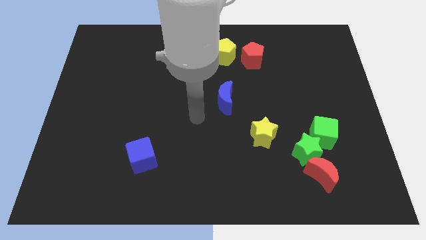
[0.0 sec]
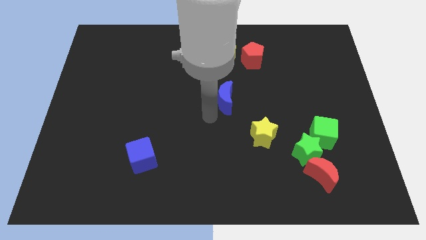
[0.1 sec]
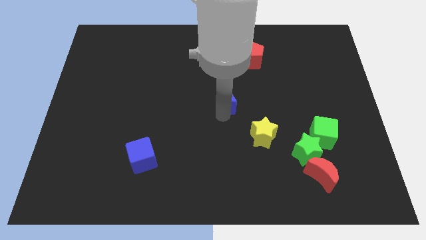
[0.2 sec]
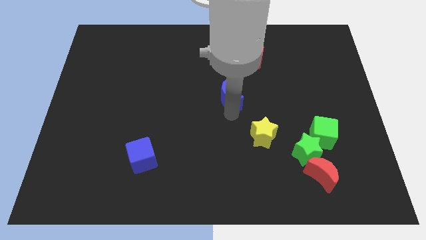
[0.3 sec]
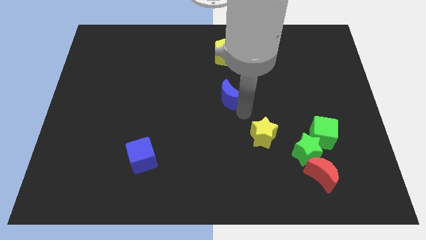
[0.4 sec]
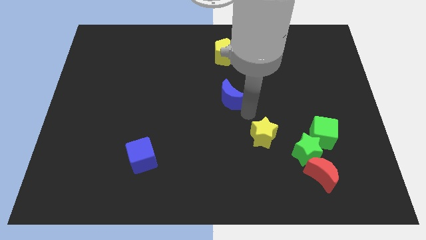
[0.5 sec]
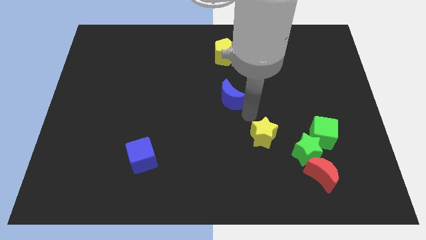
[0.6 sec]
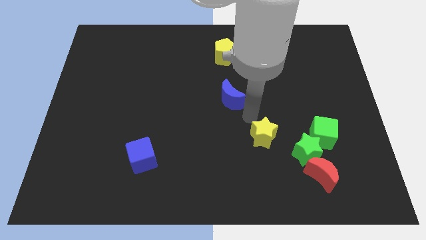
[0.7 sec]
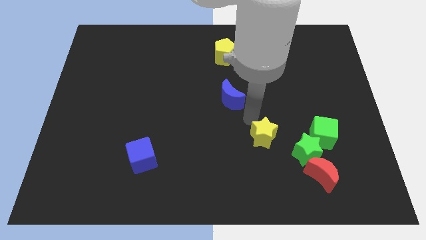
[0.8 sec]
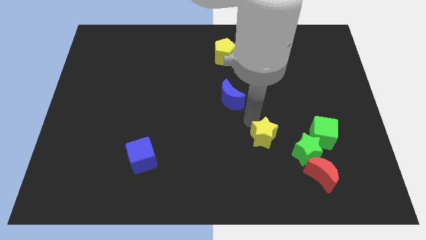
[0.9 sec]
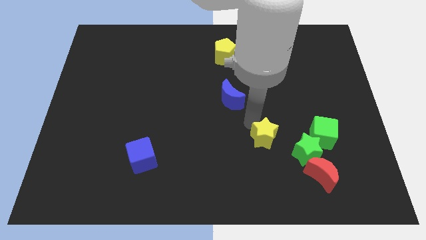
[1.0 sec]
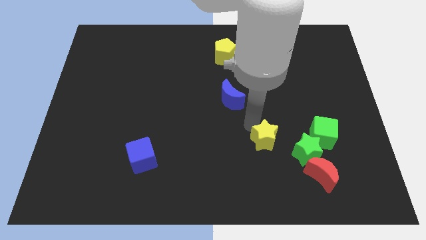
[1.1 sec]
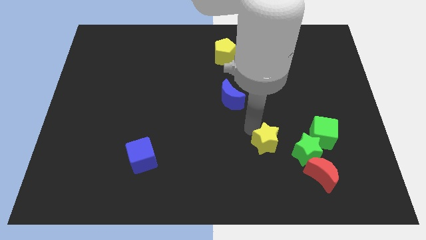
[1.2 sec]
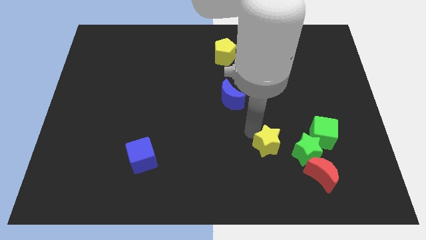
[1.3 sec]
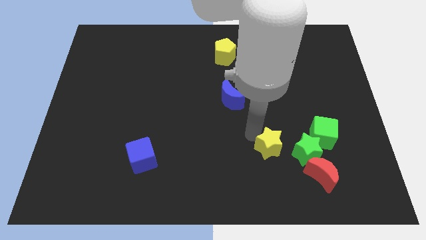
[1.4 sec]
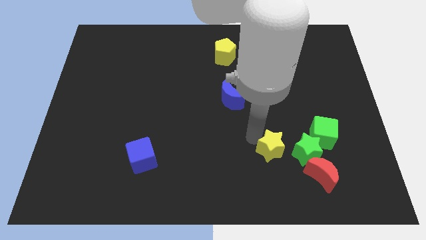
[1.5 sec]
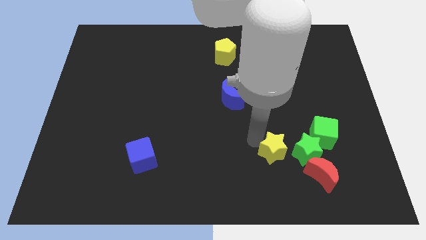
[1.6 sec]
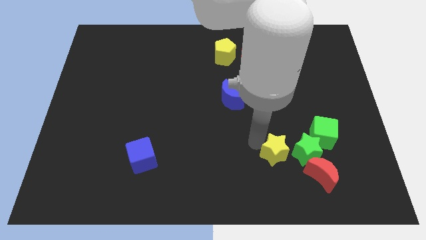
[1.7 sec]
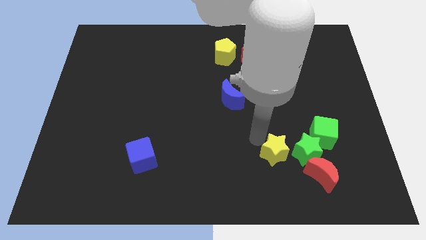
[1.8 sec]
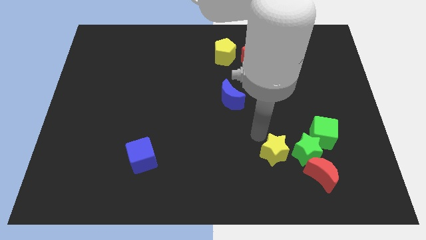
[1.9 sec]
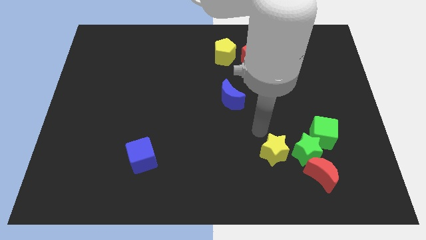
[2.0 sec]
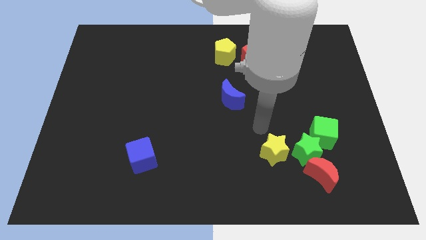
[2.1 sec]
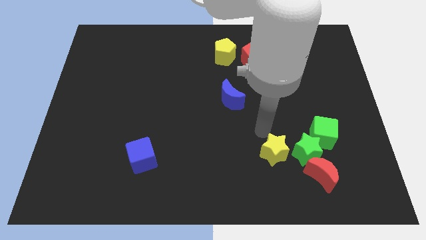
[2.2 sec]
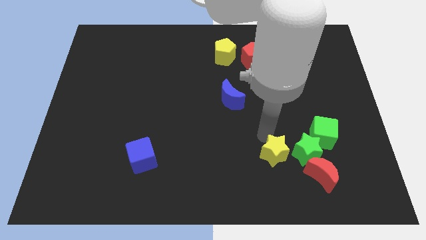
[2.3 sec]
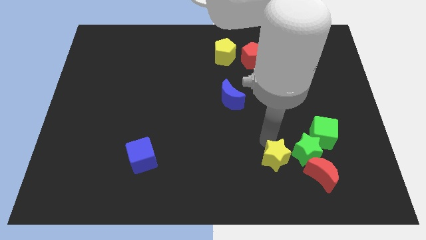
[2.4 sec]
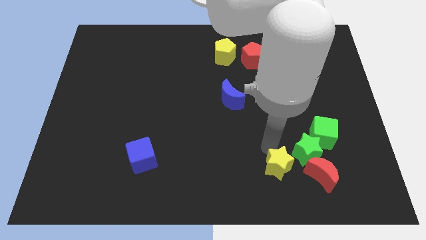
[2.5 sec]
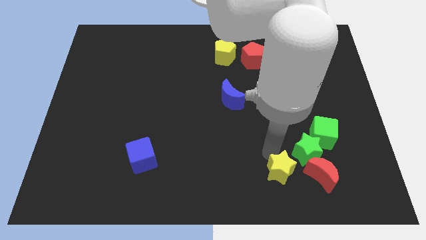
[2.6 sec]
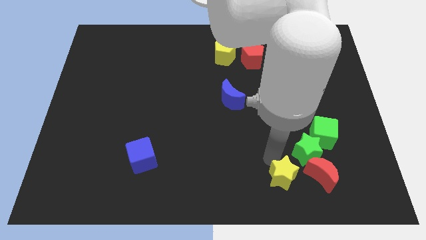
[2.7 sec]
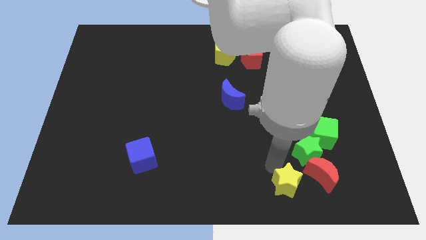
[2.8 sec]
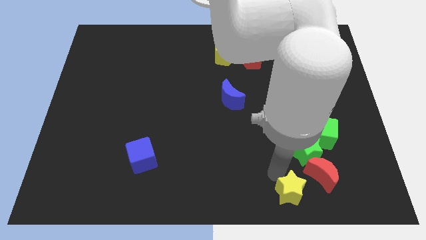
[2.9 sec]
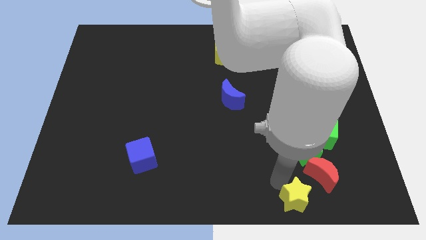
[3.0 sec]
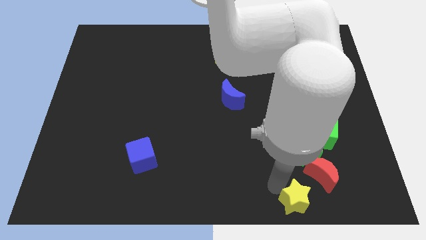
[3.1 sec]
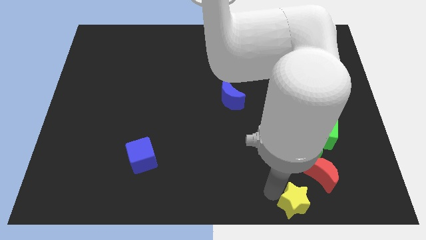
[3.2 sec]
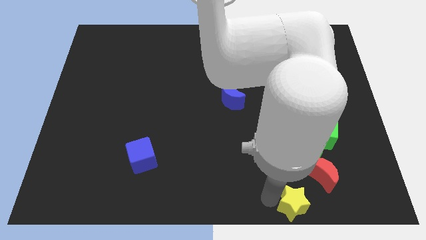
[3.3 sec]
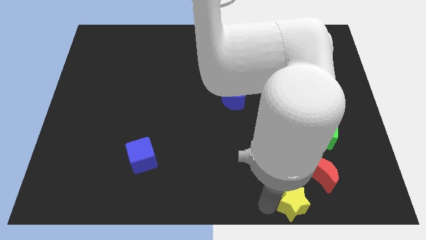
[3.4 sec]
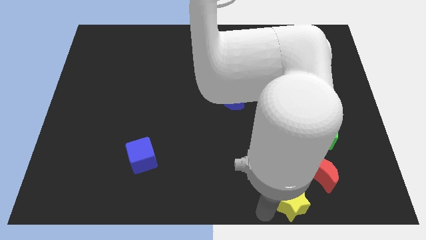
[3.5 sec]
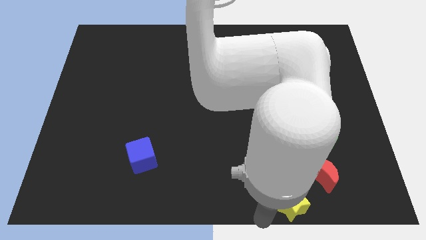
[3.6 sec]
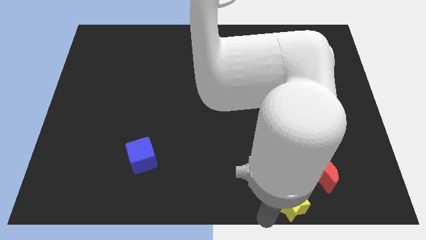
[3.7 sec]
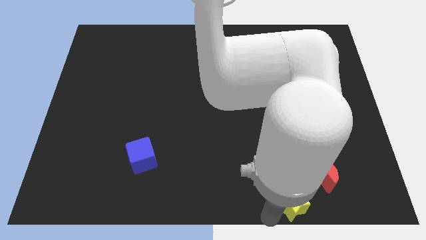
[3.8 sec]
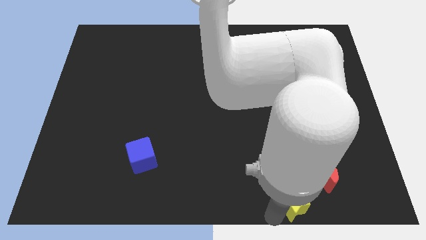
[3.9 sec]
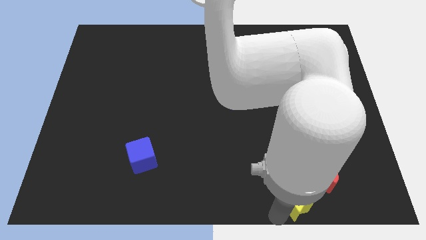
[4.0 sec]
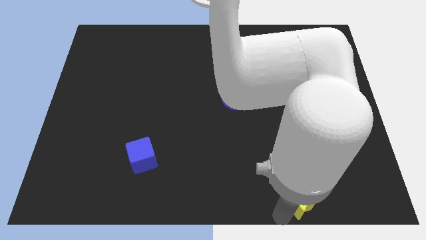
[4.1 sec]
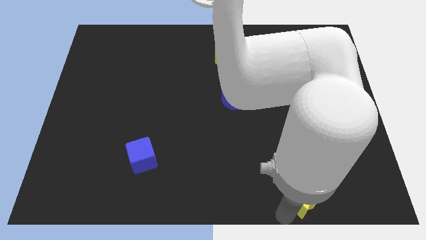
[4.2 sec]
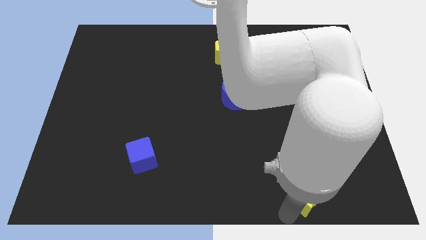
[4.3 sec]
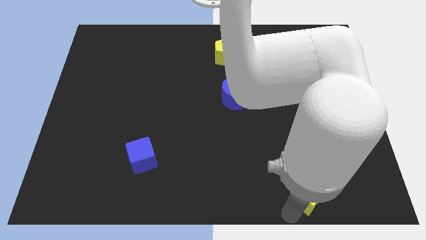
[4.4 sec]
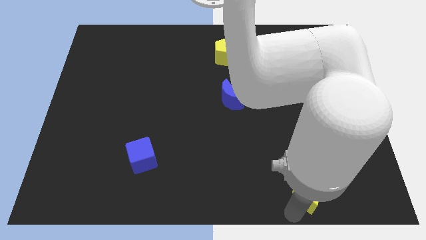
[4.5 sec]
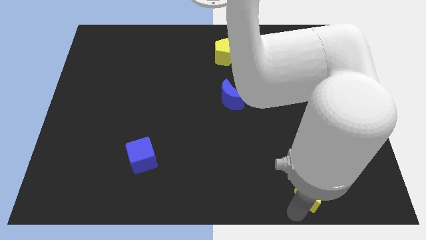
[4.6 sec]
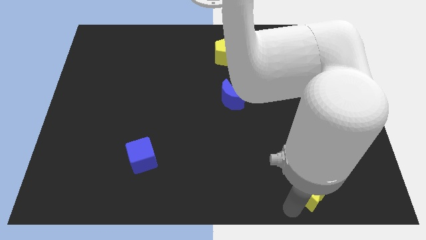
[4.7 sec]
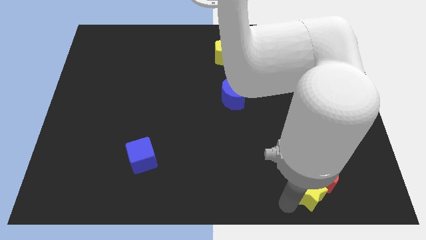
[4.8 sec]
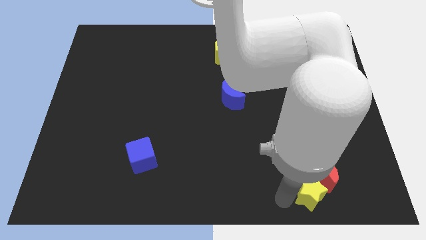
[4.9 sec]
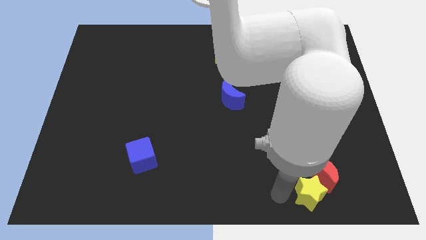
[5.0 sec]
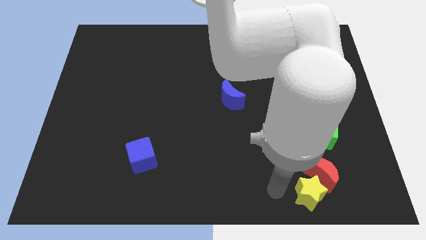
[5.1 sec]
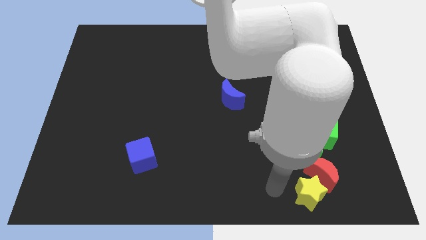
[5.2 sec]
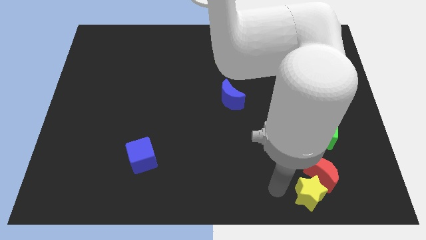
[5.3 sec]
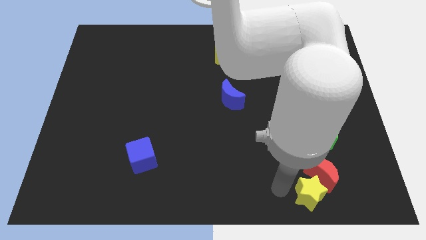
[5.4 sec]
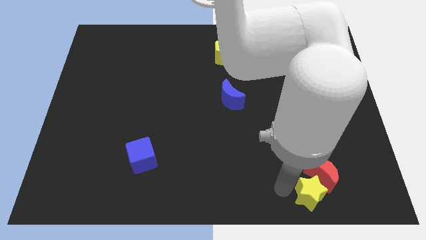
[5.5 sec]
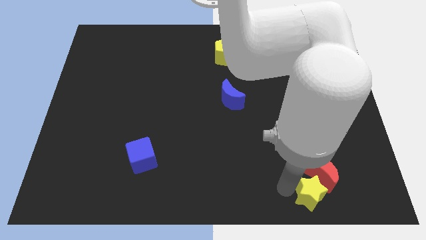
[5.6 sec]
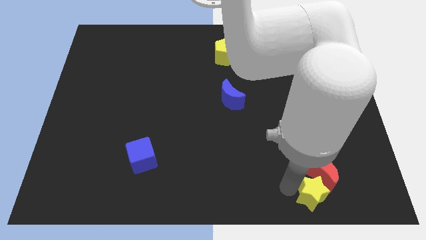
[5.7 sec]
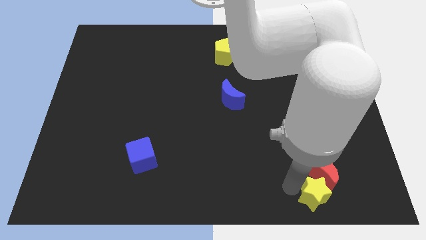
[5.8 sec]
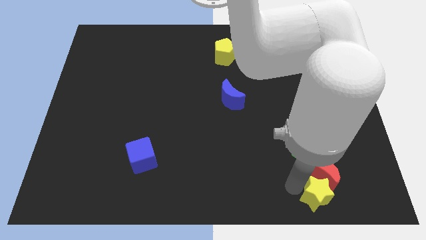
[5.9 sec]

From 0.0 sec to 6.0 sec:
move the yellow star to the bottom side of the green cube

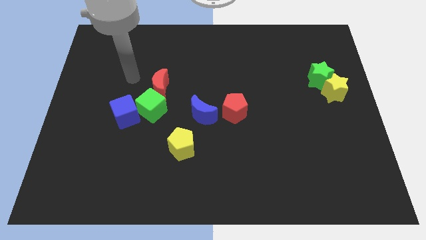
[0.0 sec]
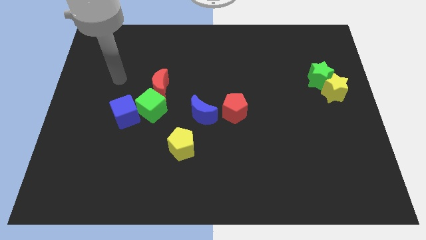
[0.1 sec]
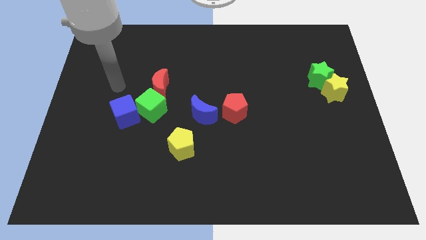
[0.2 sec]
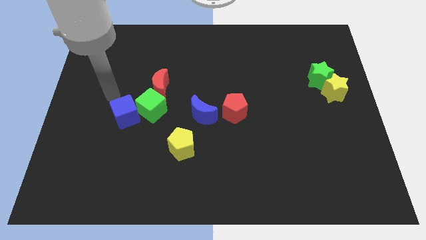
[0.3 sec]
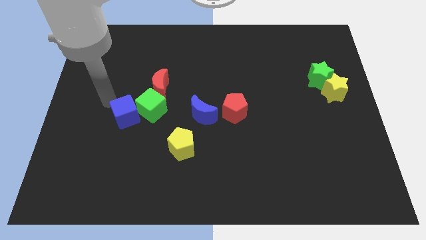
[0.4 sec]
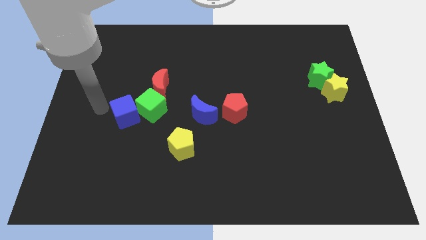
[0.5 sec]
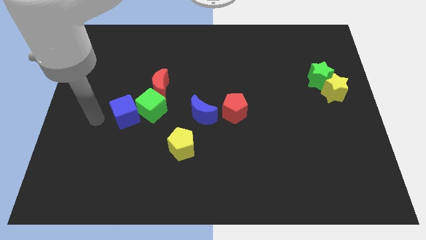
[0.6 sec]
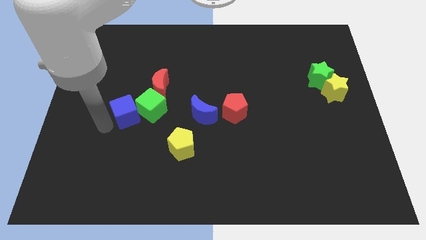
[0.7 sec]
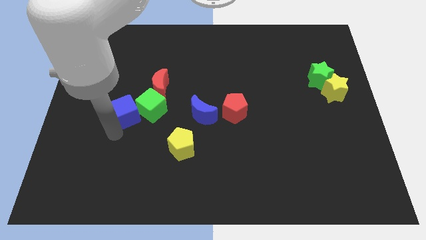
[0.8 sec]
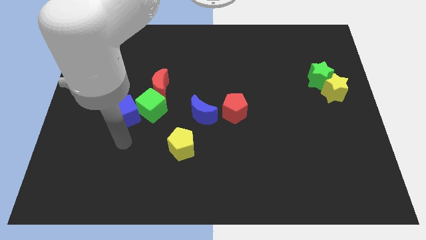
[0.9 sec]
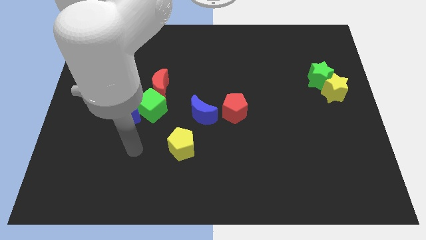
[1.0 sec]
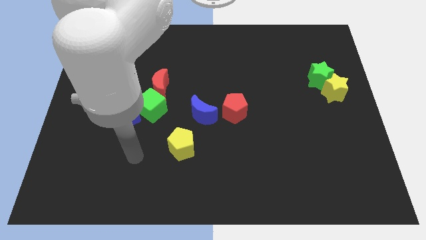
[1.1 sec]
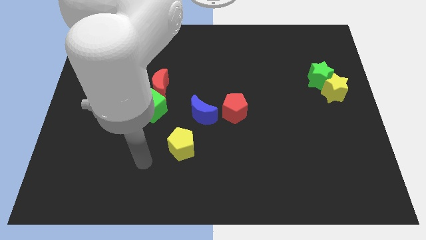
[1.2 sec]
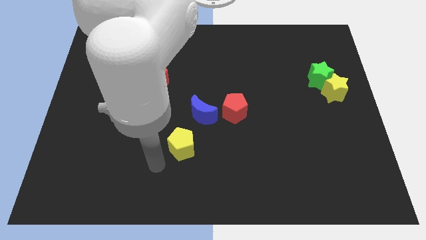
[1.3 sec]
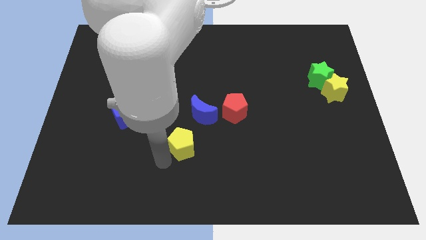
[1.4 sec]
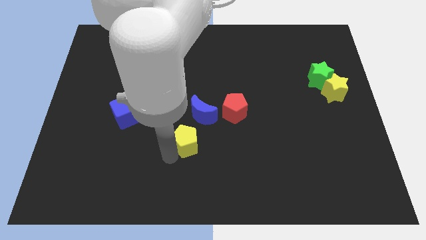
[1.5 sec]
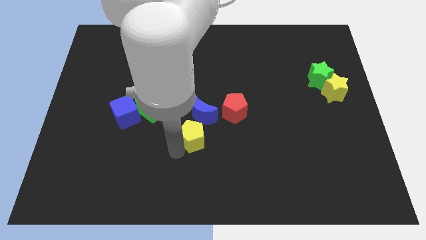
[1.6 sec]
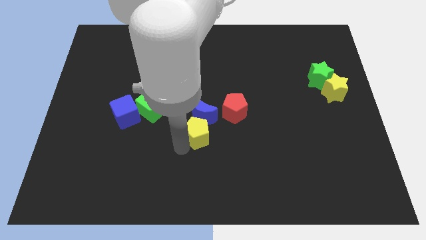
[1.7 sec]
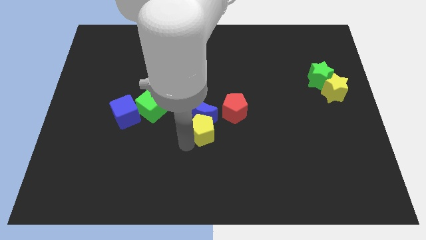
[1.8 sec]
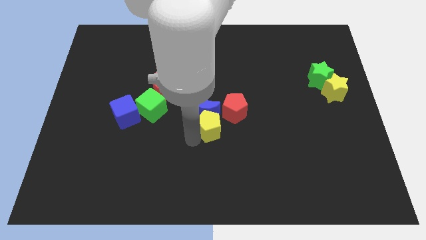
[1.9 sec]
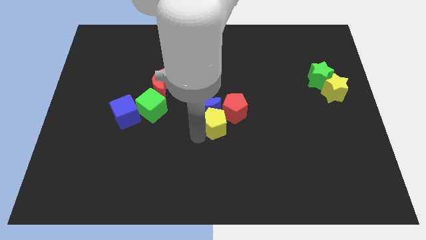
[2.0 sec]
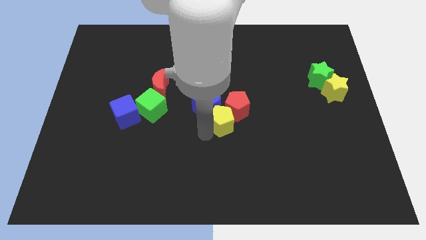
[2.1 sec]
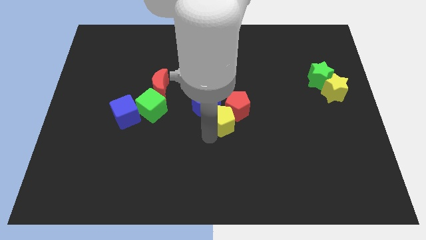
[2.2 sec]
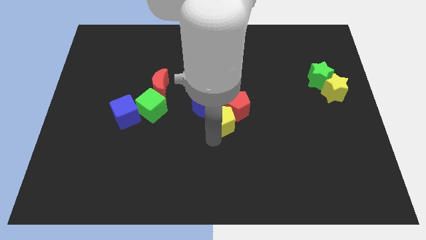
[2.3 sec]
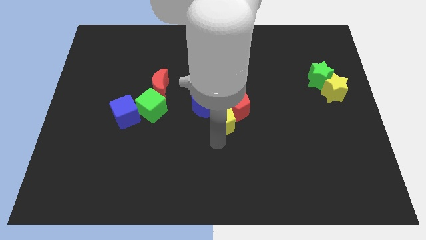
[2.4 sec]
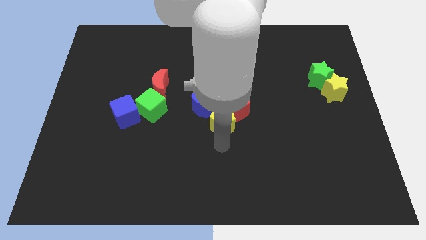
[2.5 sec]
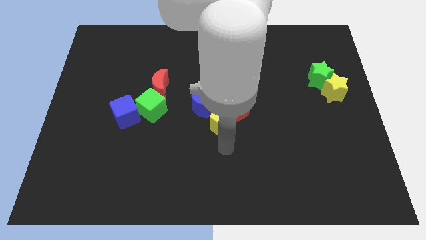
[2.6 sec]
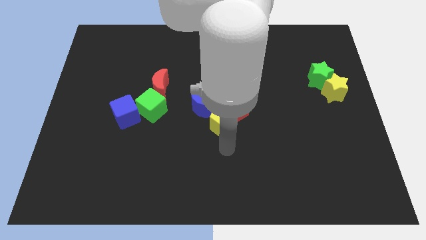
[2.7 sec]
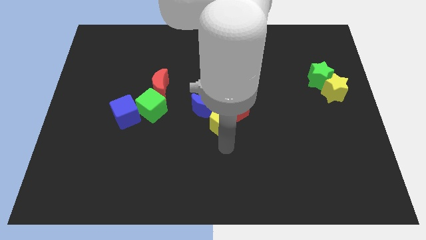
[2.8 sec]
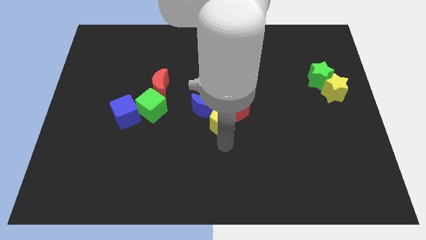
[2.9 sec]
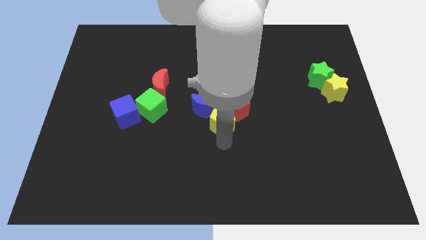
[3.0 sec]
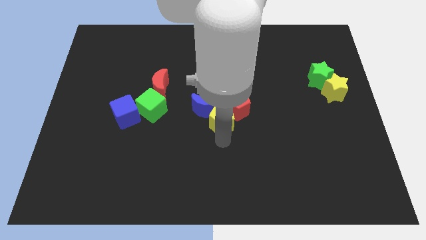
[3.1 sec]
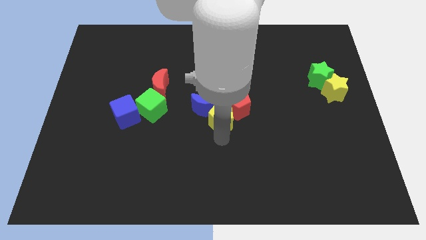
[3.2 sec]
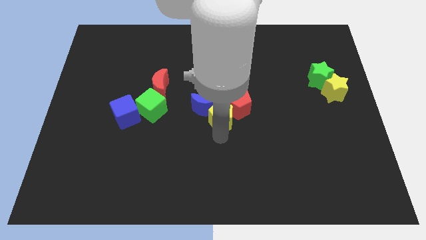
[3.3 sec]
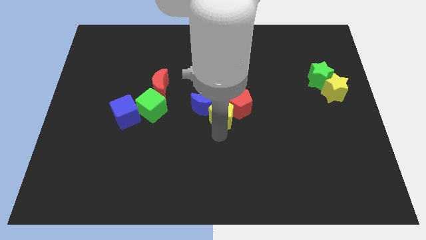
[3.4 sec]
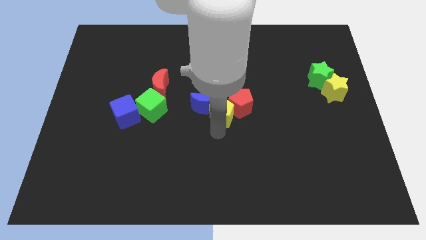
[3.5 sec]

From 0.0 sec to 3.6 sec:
push the yellow pentagon right of the green cube
